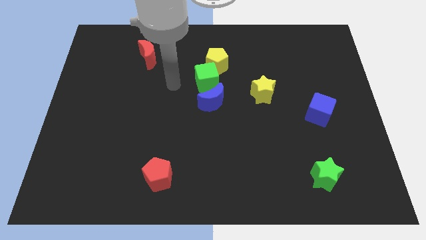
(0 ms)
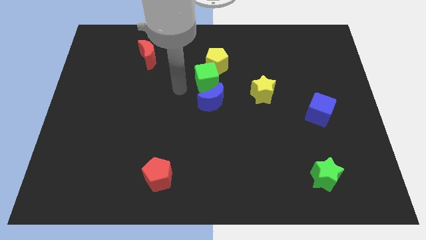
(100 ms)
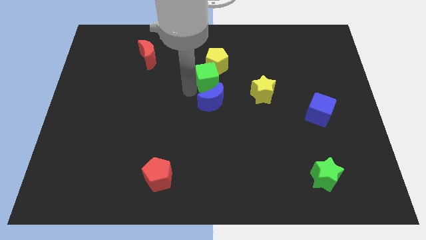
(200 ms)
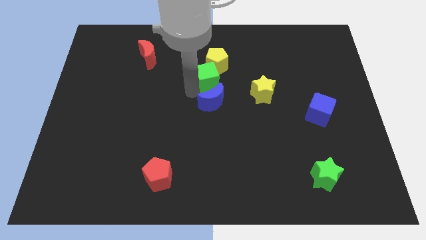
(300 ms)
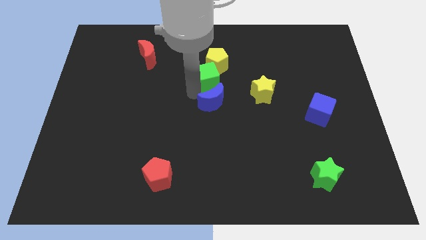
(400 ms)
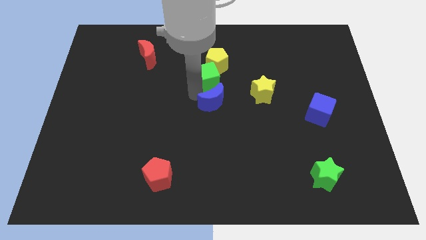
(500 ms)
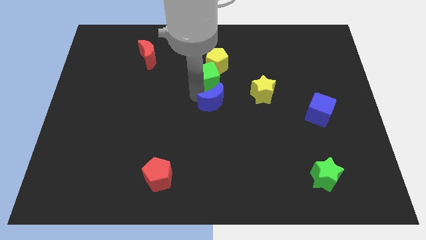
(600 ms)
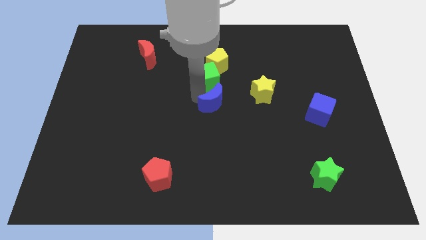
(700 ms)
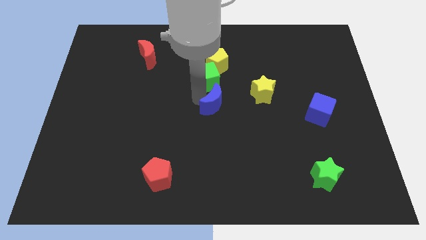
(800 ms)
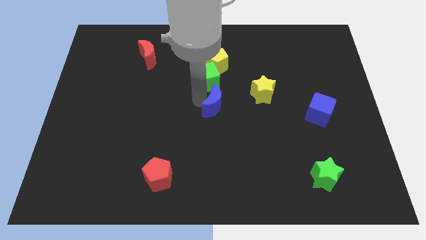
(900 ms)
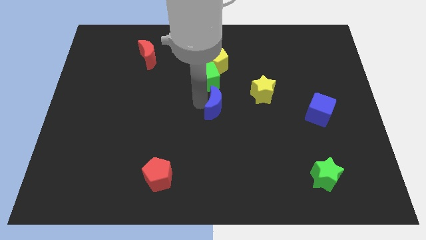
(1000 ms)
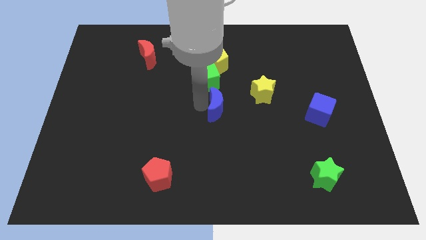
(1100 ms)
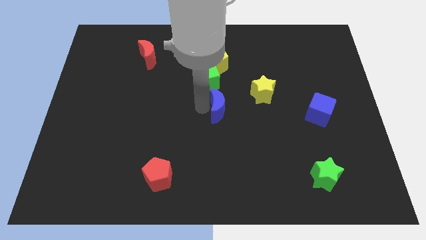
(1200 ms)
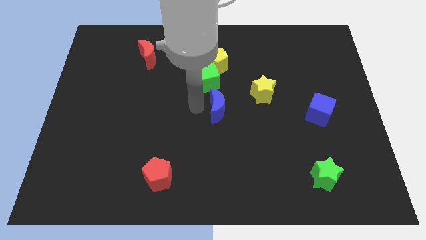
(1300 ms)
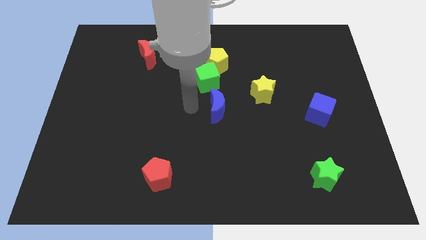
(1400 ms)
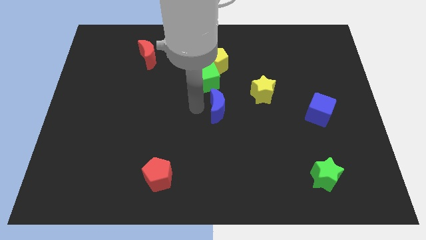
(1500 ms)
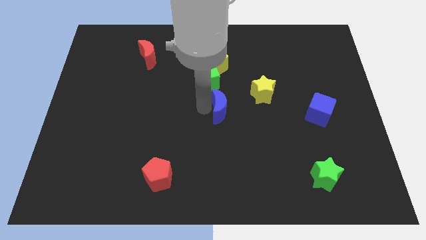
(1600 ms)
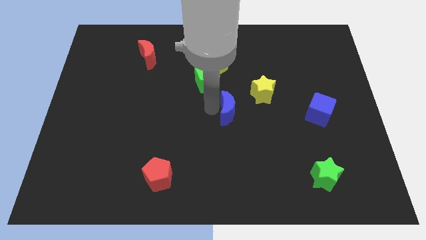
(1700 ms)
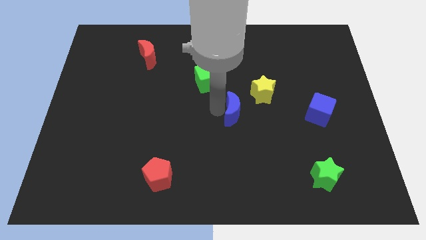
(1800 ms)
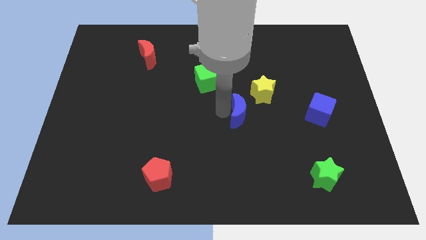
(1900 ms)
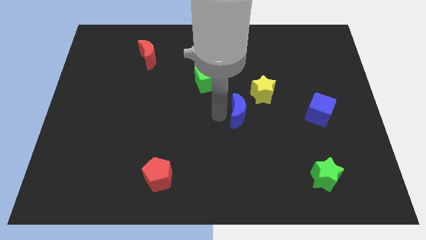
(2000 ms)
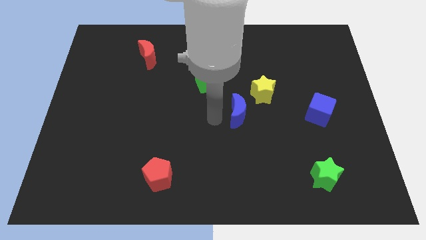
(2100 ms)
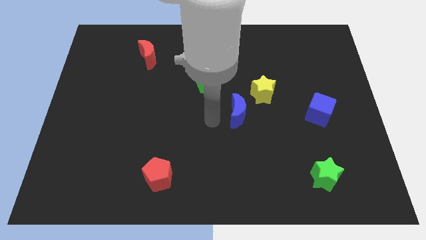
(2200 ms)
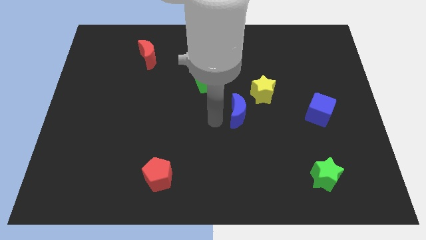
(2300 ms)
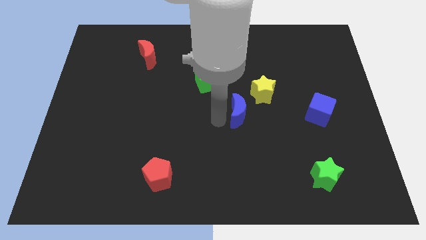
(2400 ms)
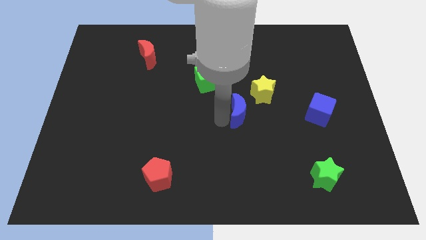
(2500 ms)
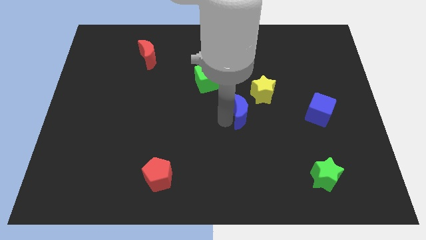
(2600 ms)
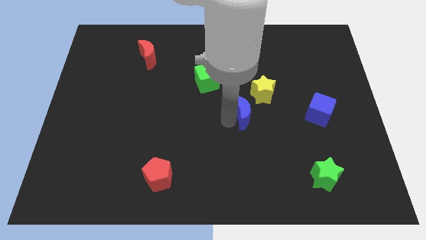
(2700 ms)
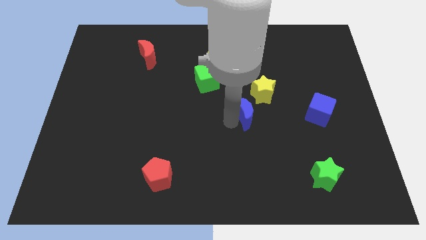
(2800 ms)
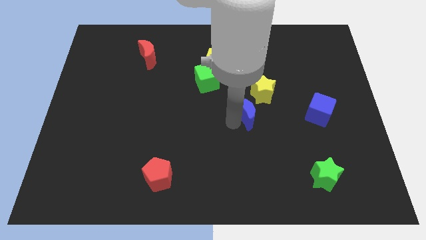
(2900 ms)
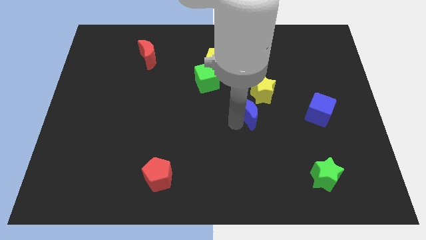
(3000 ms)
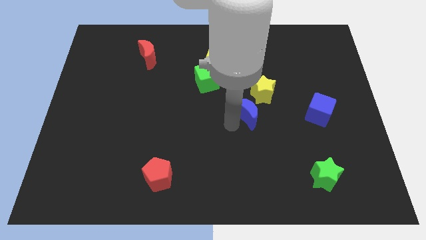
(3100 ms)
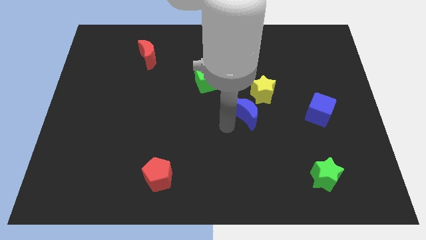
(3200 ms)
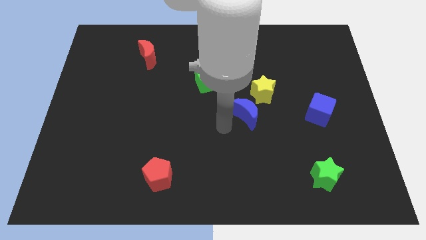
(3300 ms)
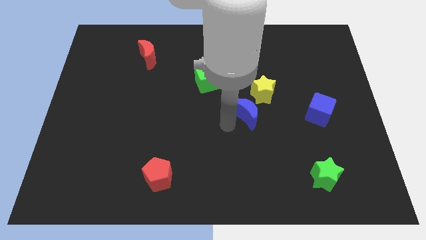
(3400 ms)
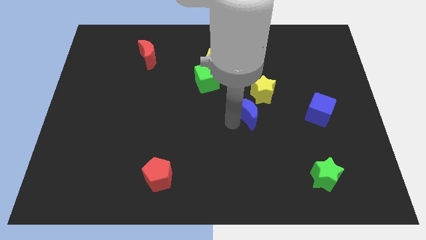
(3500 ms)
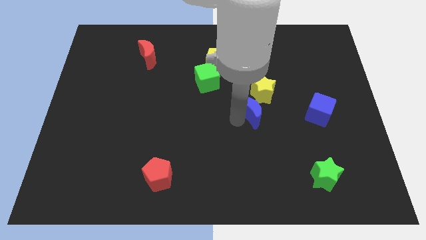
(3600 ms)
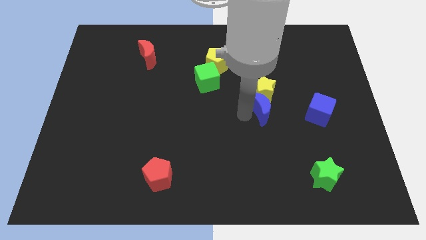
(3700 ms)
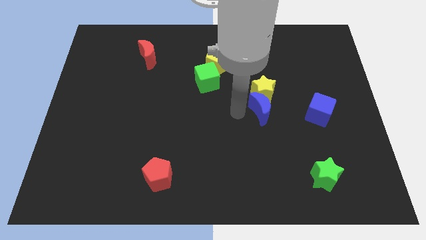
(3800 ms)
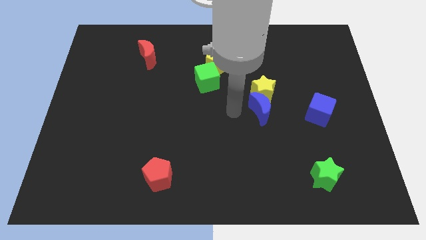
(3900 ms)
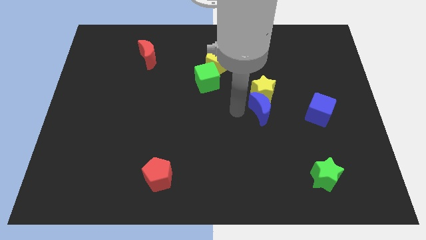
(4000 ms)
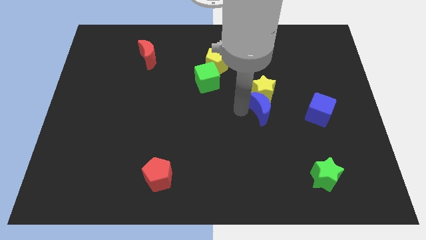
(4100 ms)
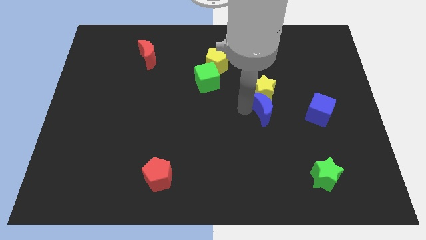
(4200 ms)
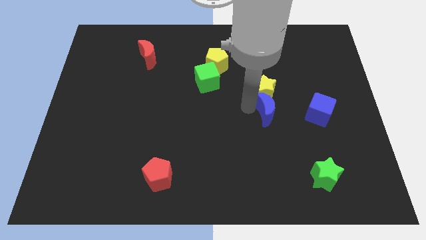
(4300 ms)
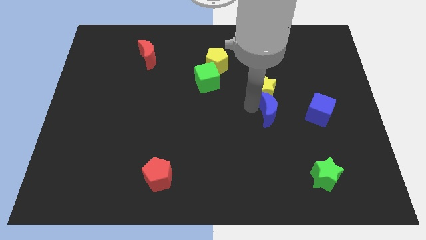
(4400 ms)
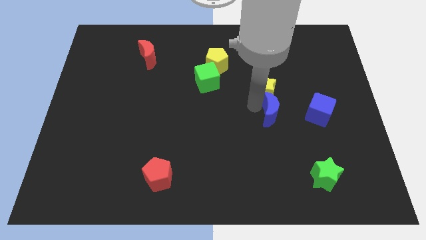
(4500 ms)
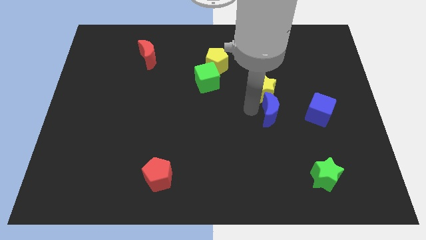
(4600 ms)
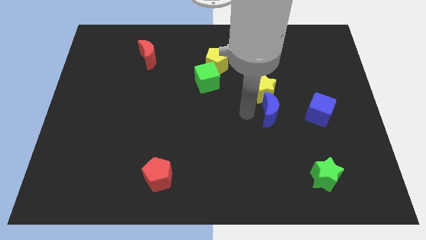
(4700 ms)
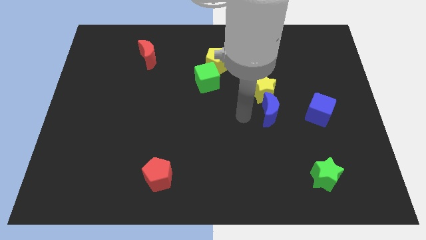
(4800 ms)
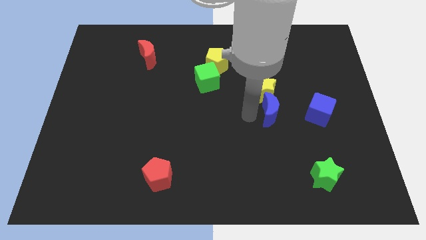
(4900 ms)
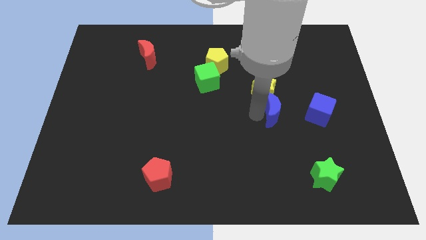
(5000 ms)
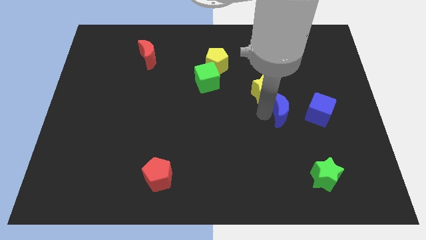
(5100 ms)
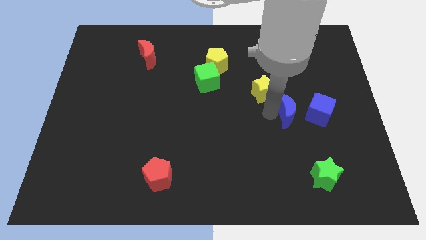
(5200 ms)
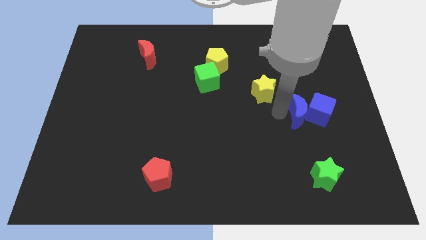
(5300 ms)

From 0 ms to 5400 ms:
move the blue moon next to the blue cube

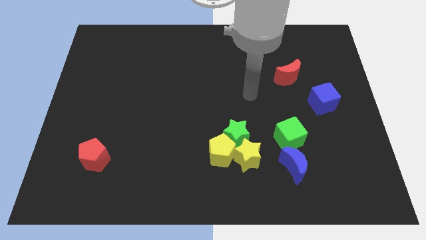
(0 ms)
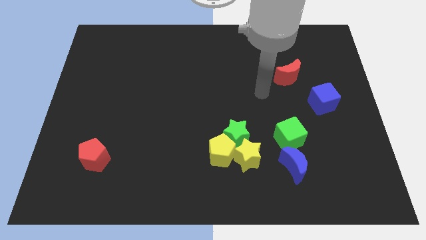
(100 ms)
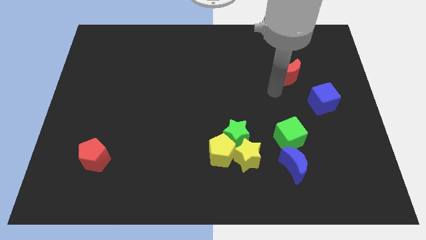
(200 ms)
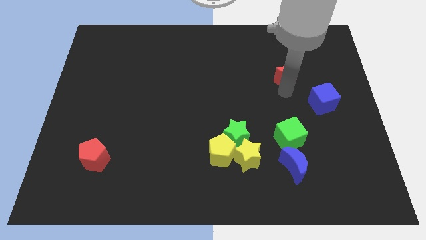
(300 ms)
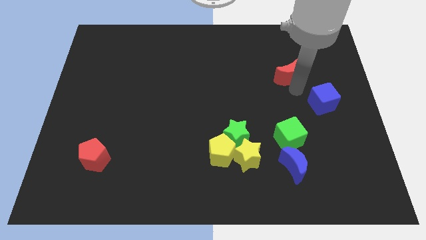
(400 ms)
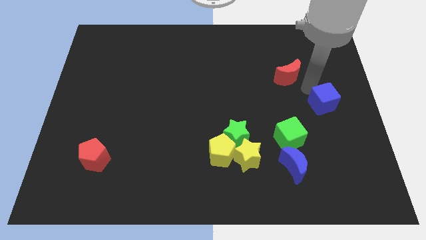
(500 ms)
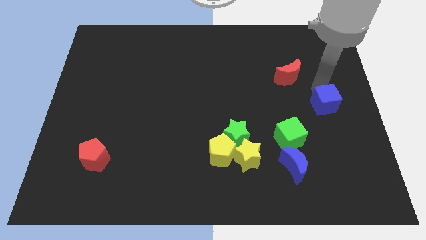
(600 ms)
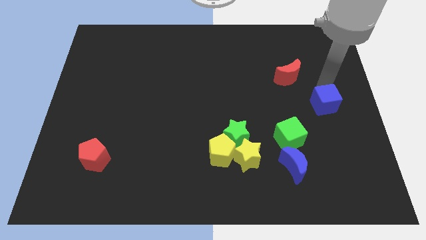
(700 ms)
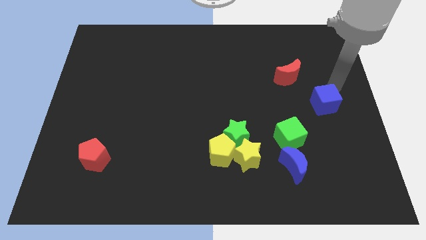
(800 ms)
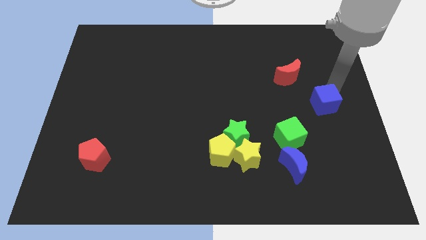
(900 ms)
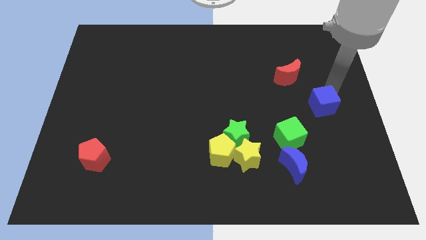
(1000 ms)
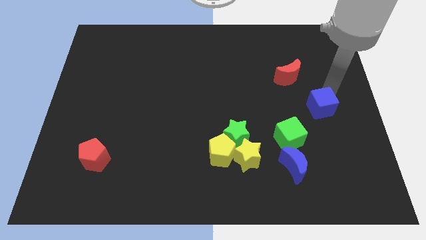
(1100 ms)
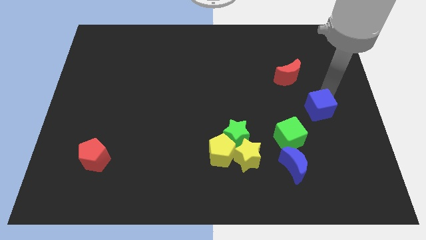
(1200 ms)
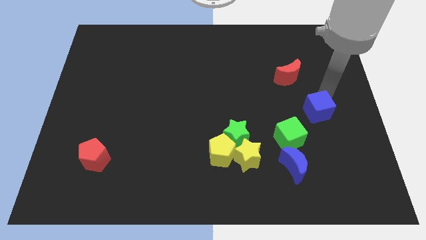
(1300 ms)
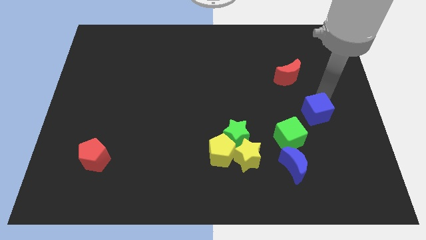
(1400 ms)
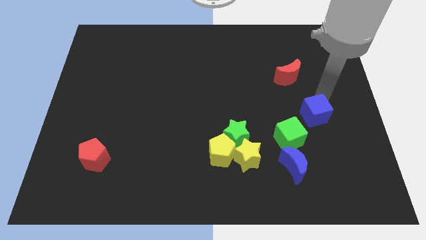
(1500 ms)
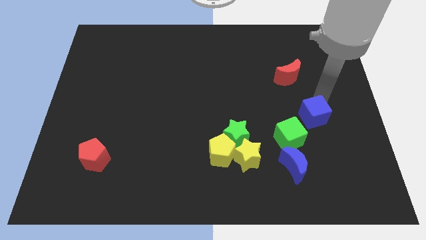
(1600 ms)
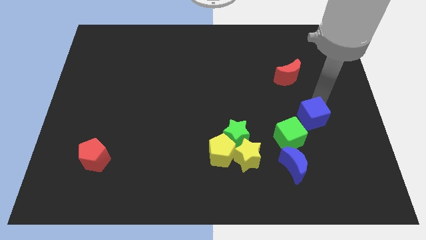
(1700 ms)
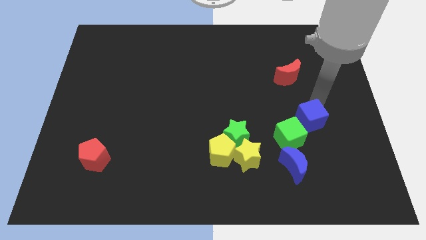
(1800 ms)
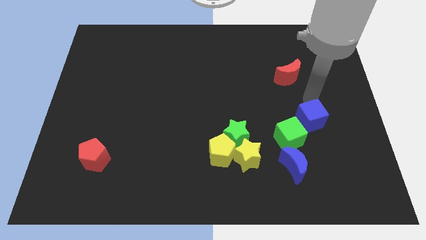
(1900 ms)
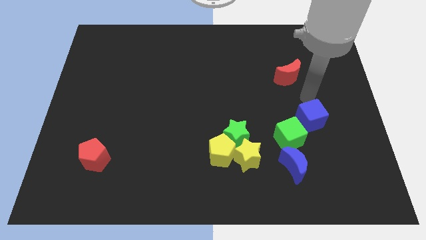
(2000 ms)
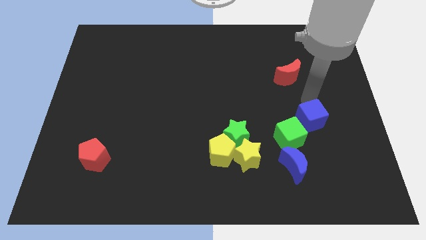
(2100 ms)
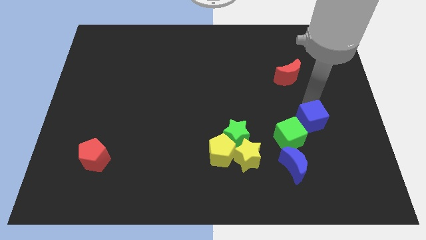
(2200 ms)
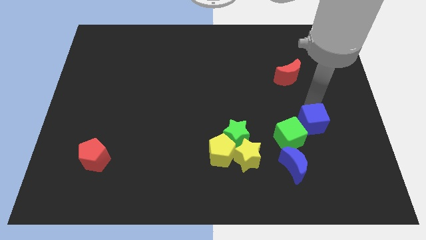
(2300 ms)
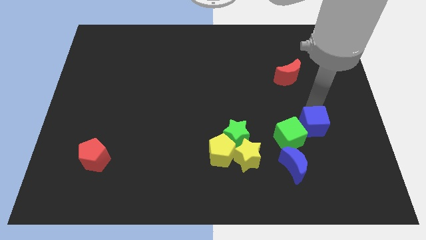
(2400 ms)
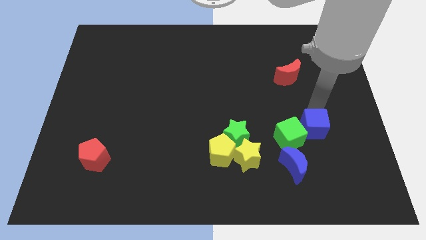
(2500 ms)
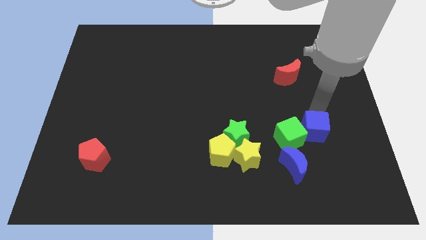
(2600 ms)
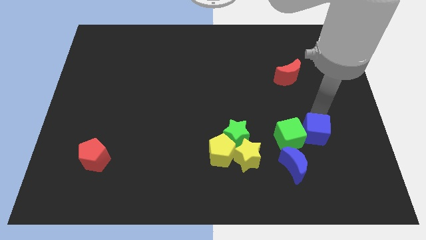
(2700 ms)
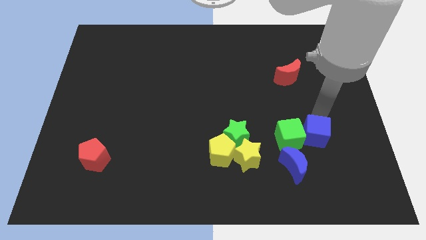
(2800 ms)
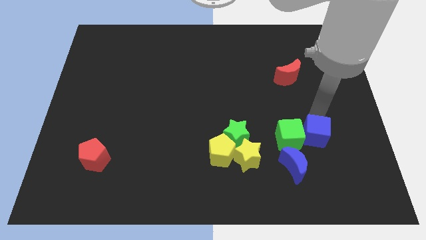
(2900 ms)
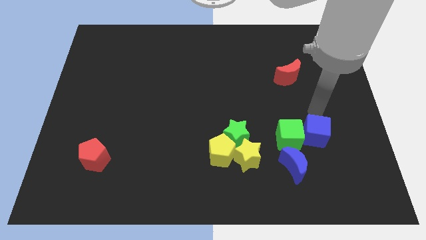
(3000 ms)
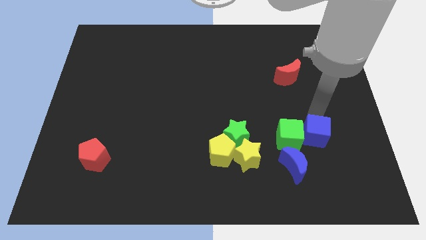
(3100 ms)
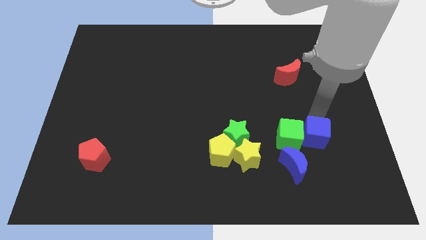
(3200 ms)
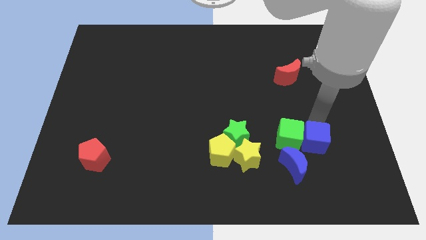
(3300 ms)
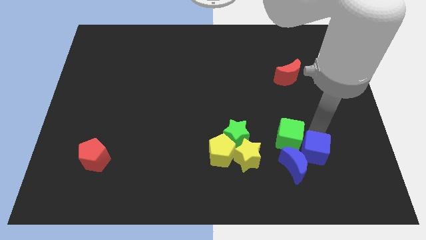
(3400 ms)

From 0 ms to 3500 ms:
move the blue cube close to the blue moon
